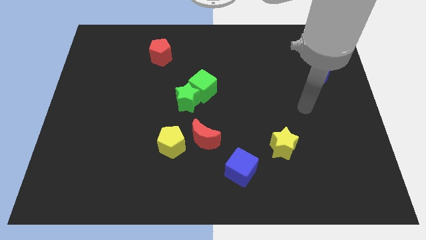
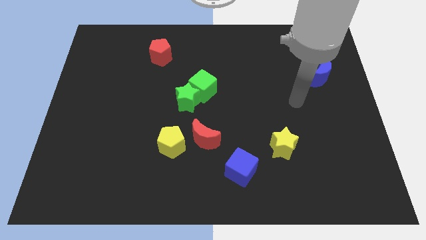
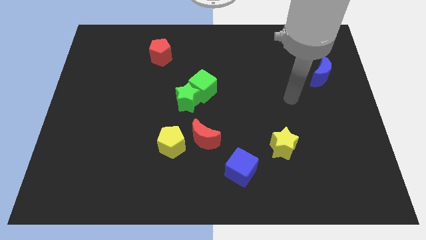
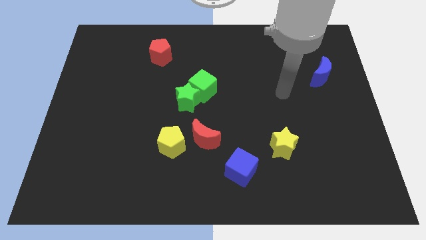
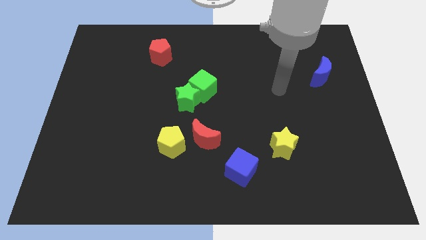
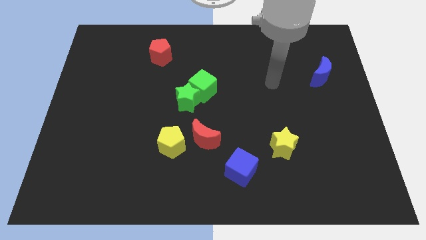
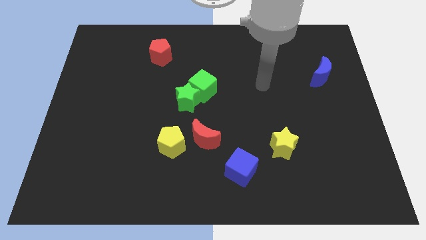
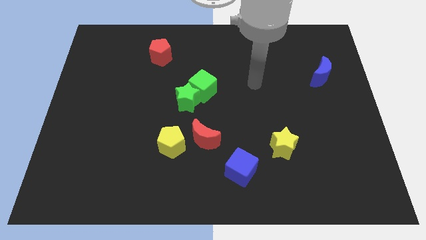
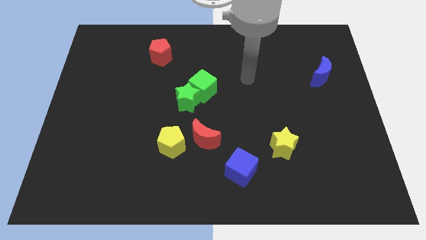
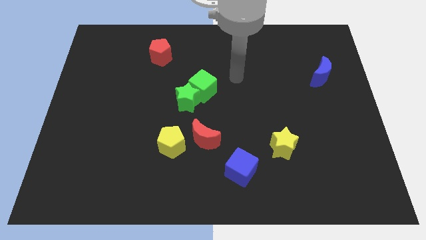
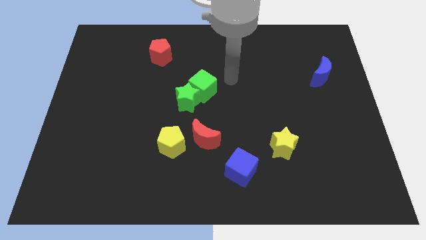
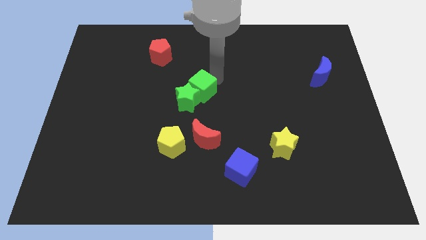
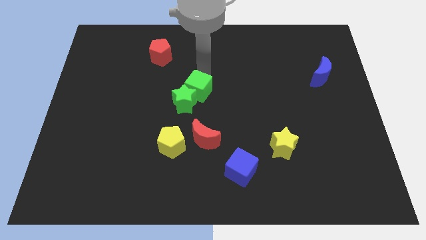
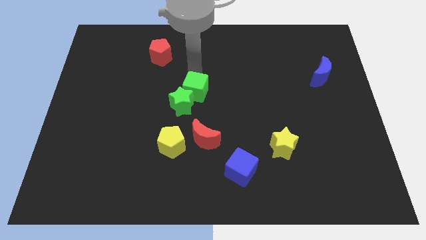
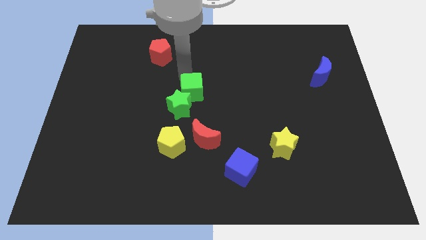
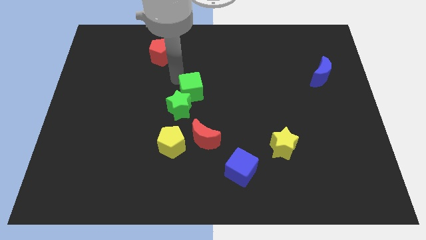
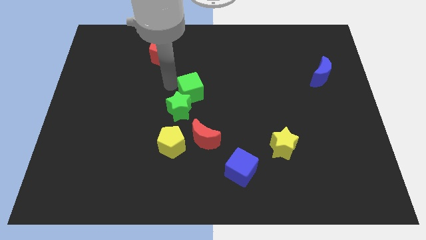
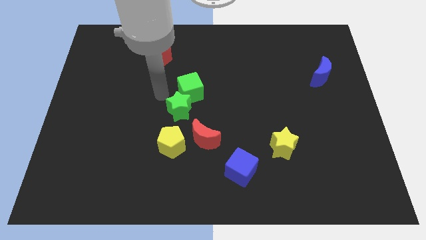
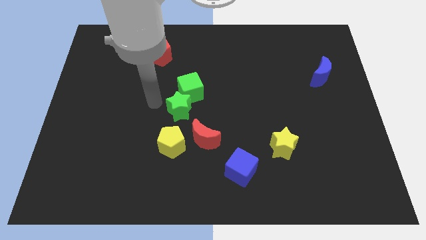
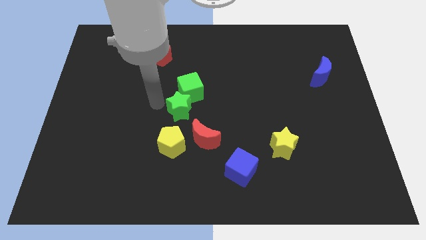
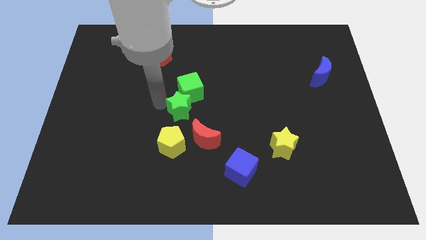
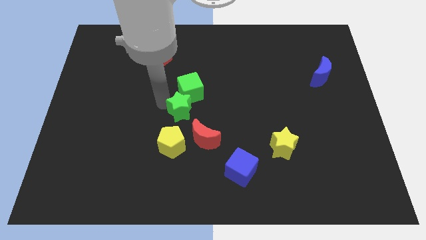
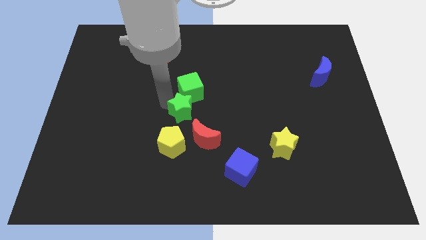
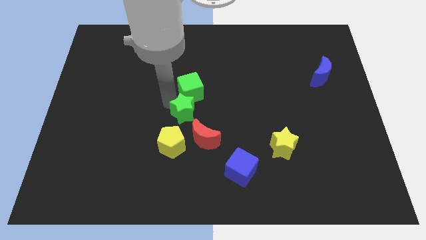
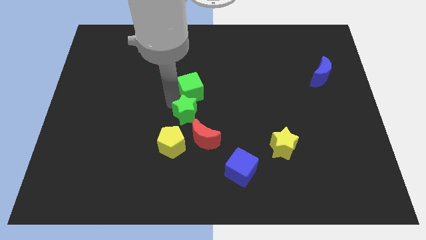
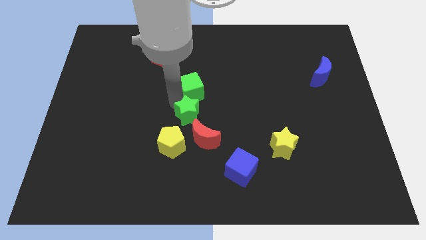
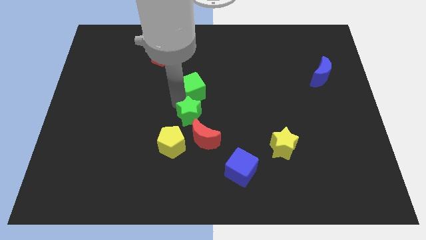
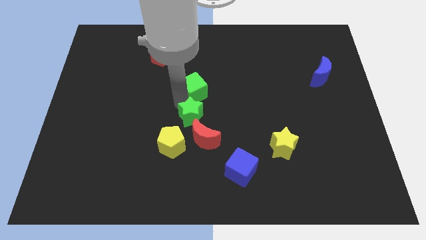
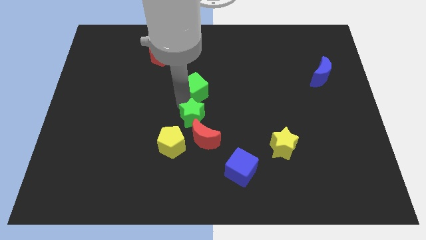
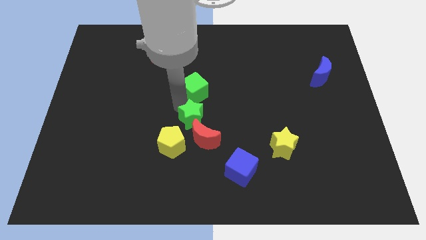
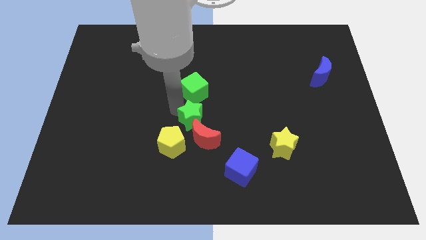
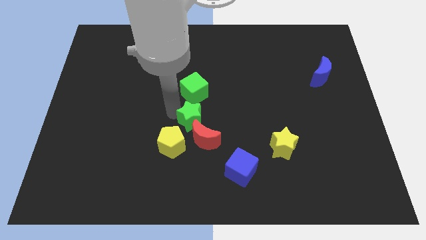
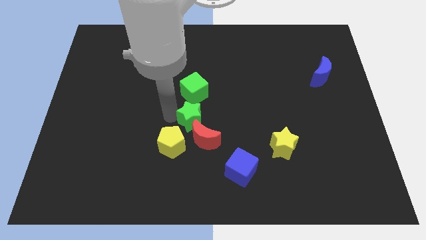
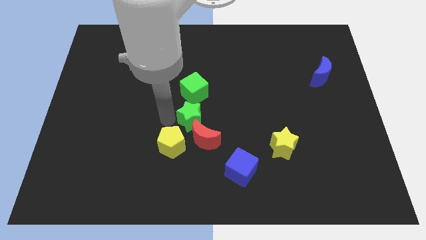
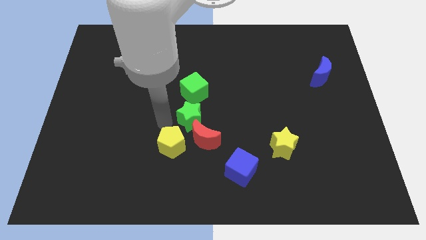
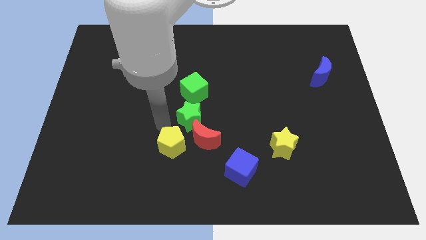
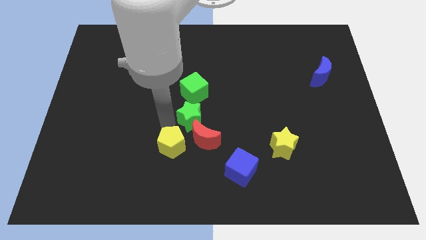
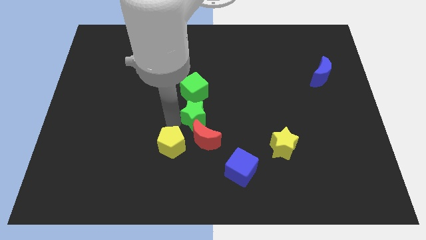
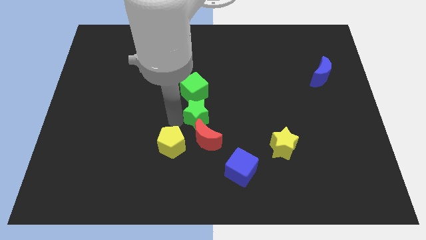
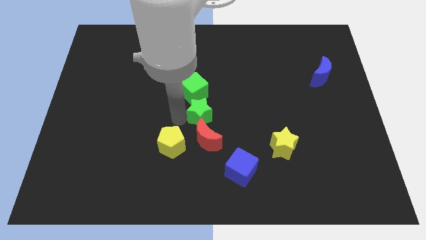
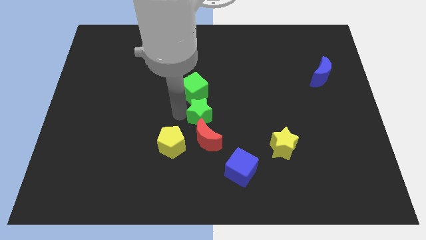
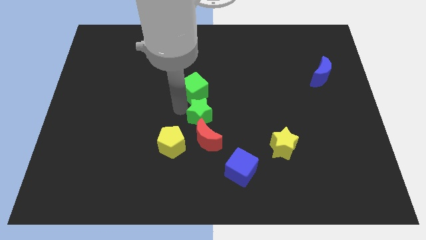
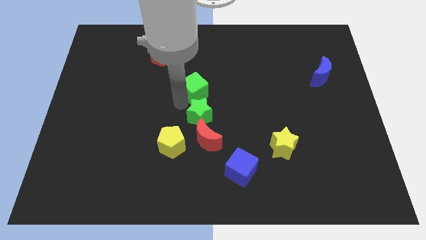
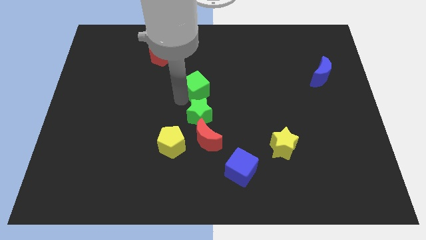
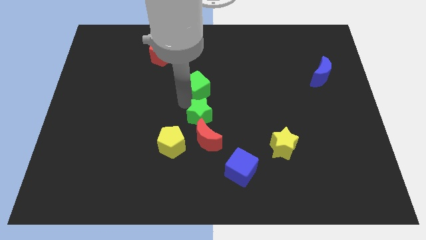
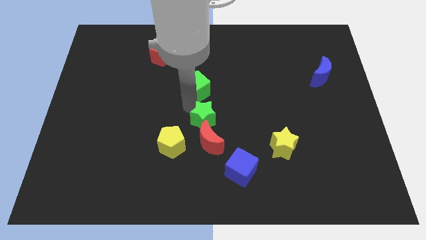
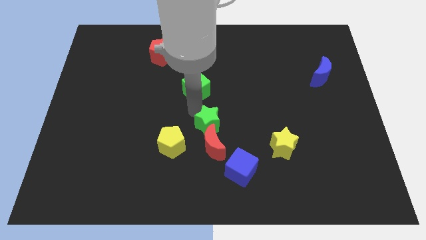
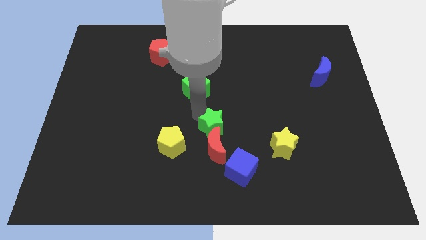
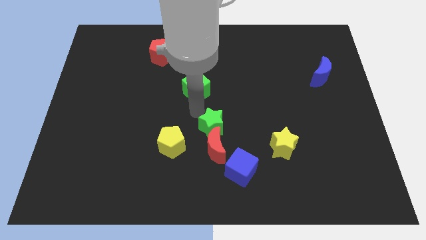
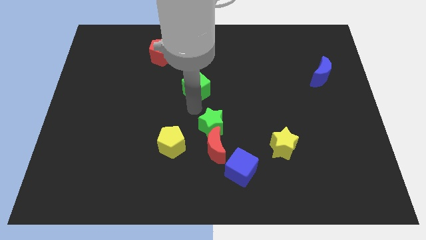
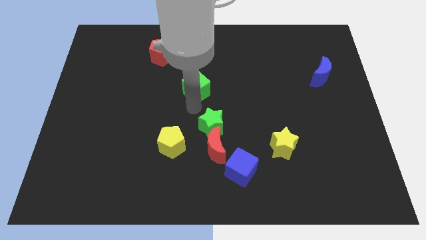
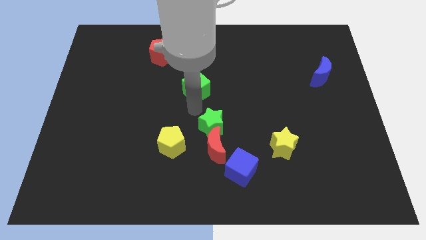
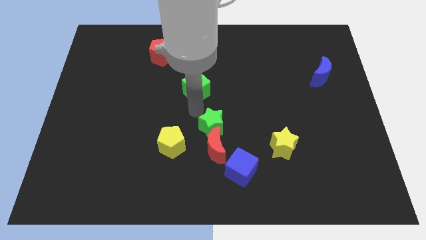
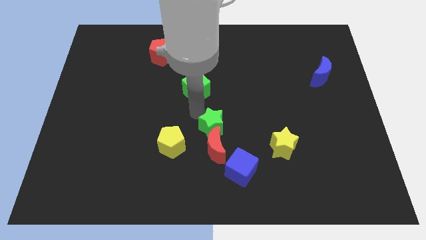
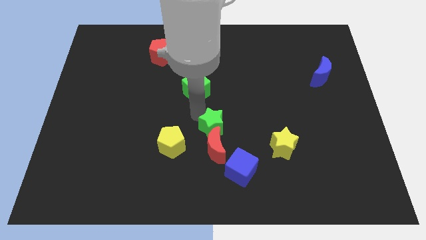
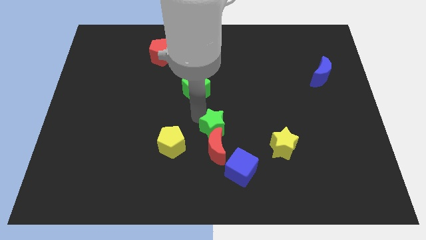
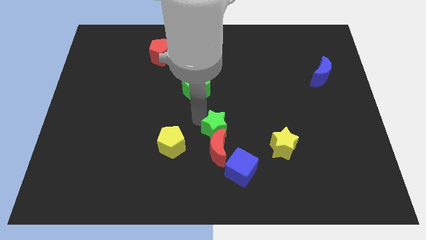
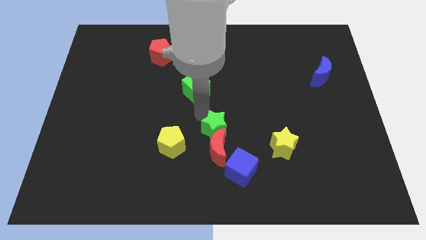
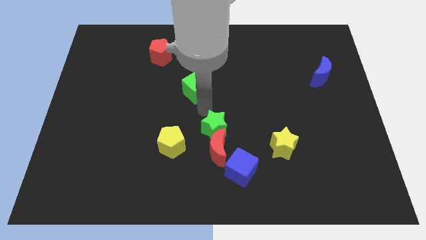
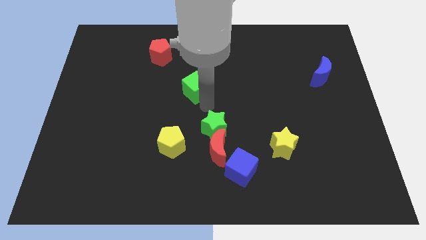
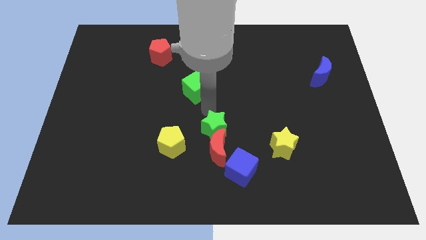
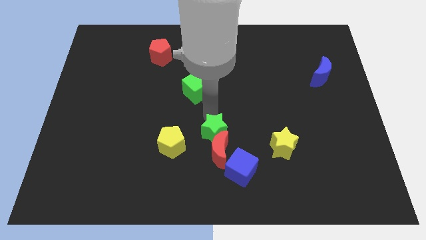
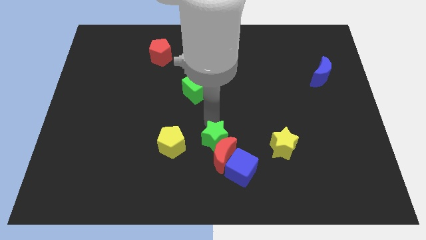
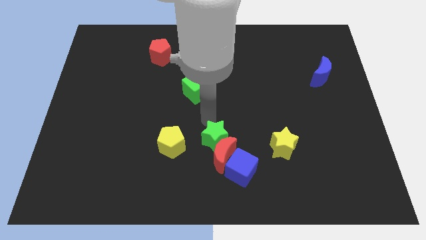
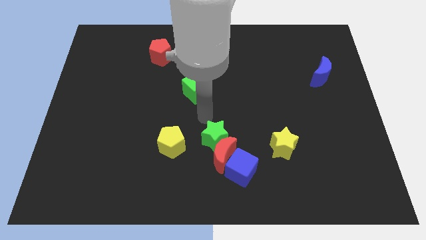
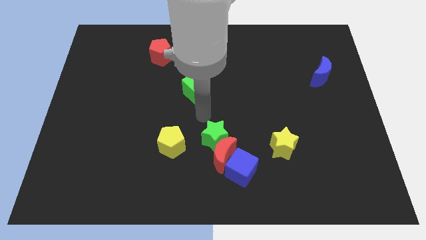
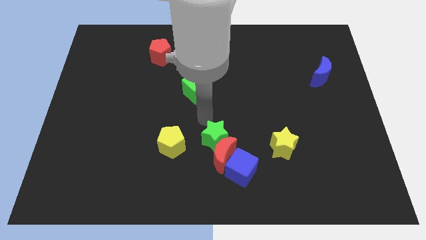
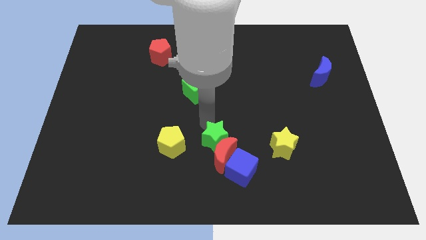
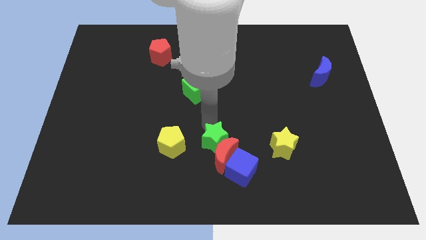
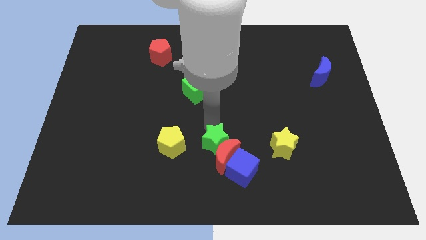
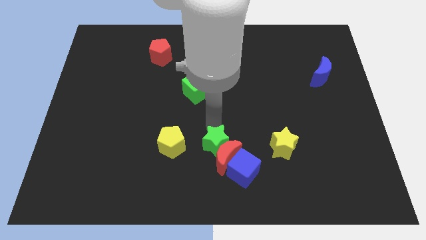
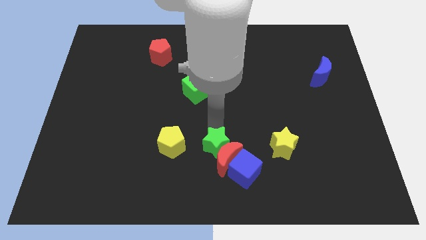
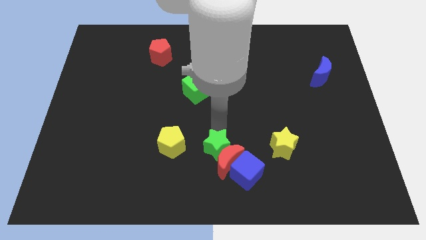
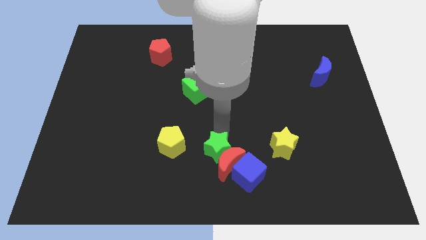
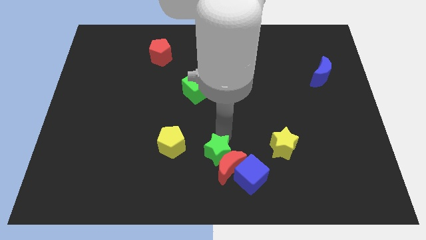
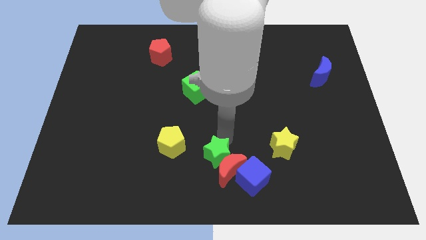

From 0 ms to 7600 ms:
push the green star to the bottom side
